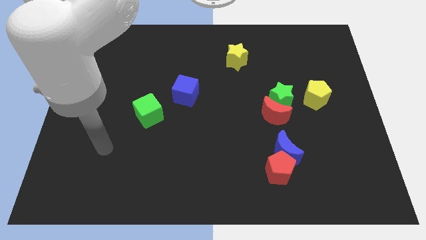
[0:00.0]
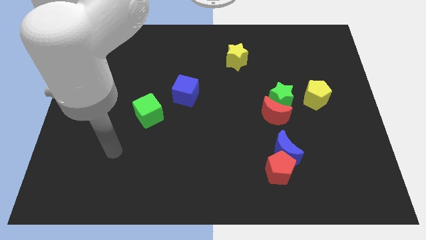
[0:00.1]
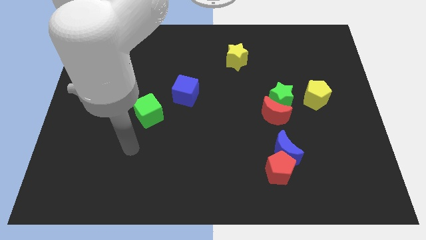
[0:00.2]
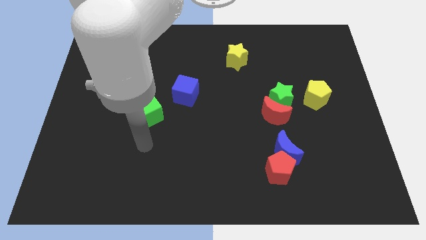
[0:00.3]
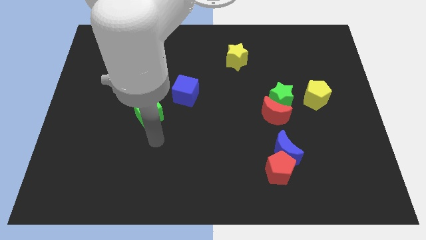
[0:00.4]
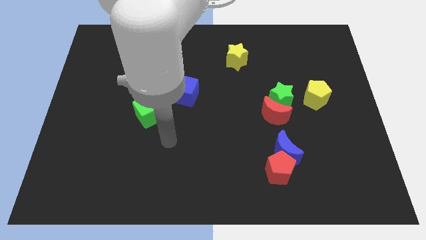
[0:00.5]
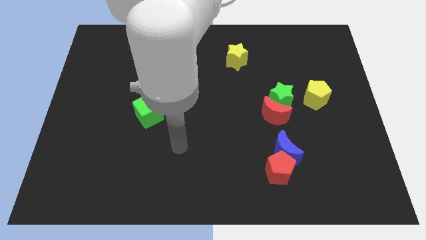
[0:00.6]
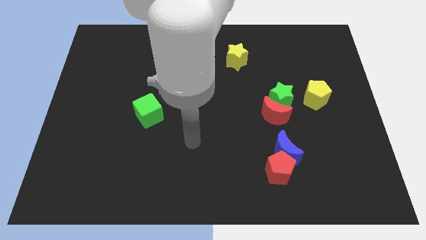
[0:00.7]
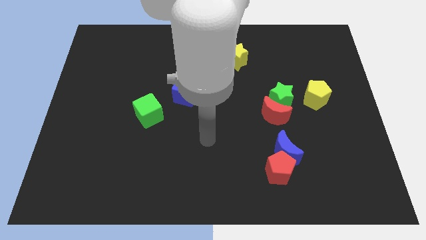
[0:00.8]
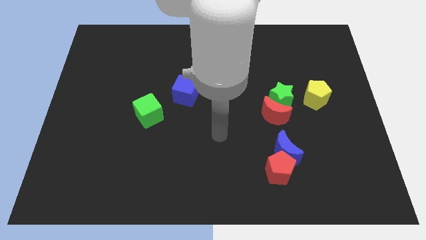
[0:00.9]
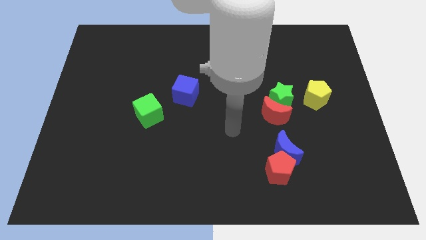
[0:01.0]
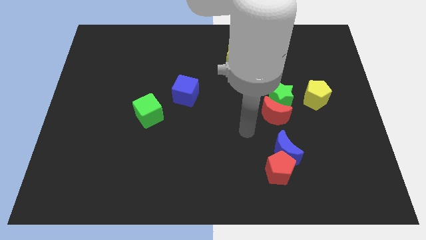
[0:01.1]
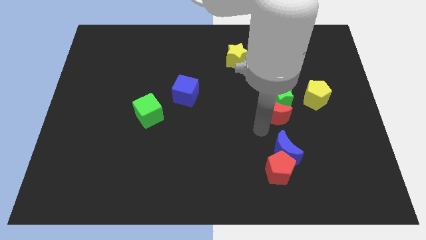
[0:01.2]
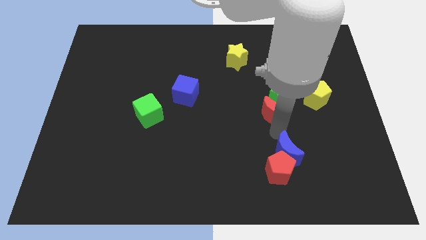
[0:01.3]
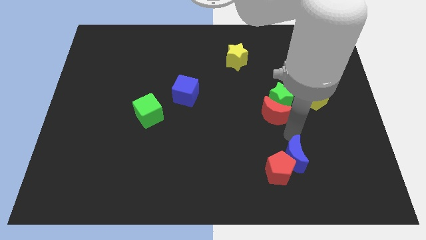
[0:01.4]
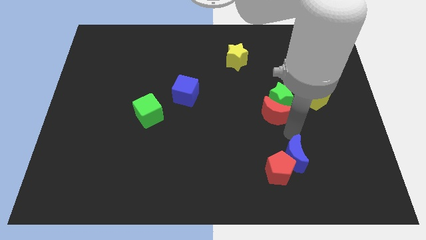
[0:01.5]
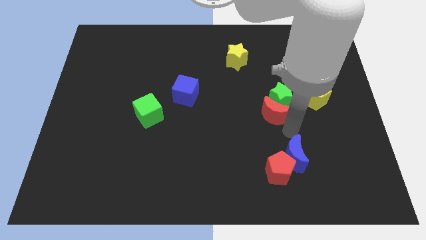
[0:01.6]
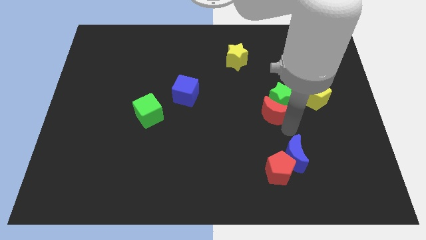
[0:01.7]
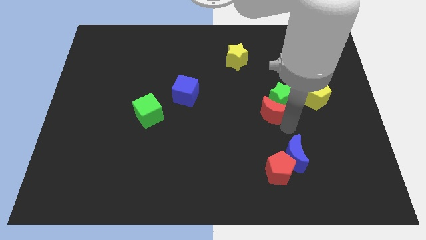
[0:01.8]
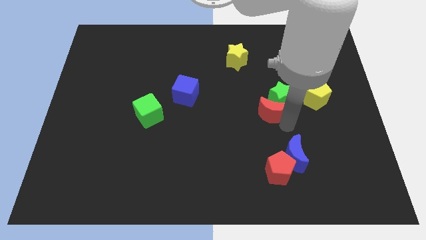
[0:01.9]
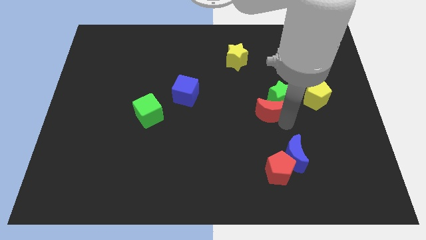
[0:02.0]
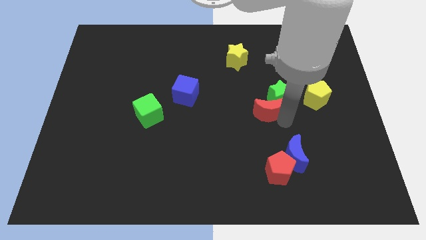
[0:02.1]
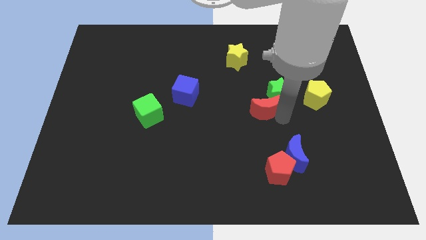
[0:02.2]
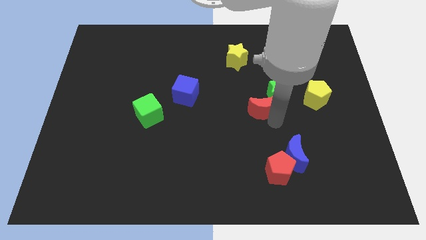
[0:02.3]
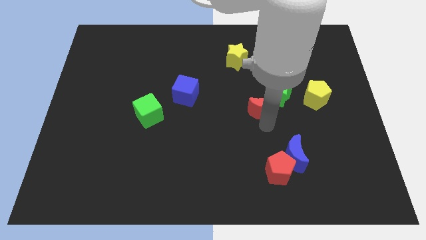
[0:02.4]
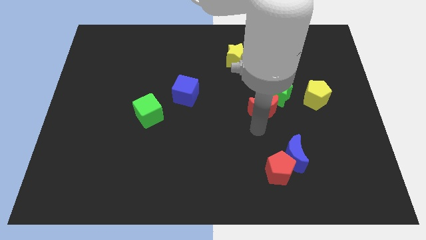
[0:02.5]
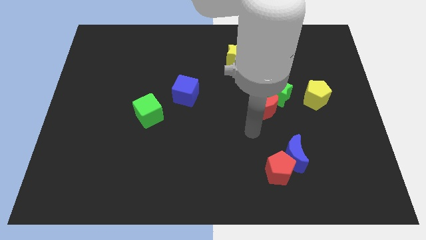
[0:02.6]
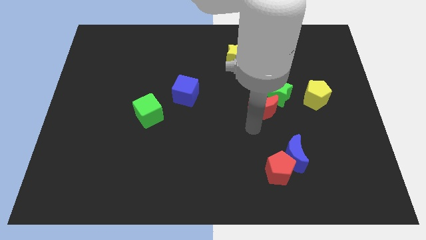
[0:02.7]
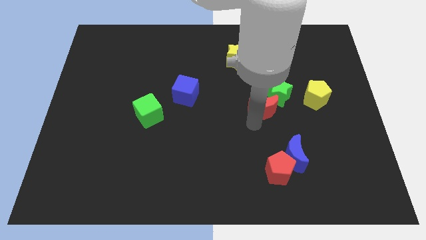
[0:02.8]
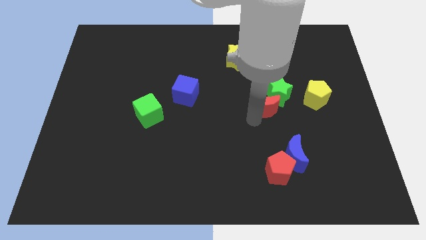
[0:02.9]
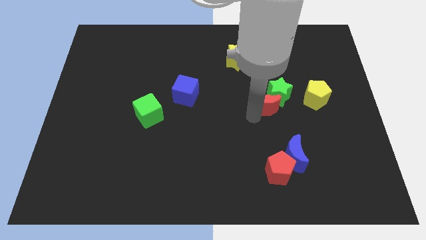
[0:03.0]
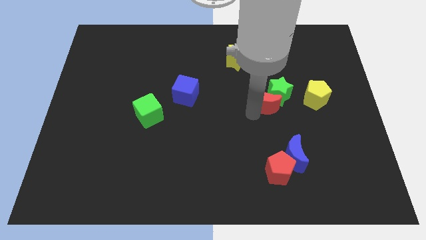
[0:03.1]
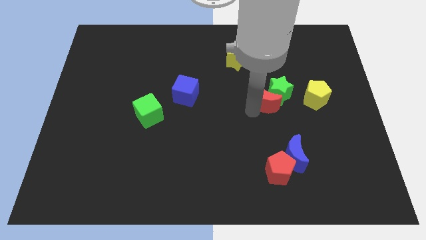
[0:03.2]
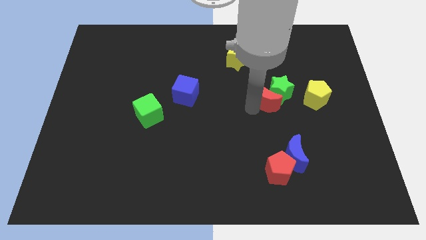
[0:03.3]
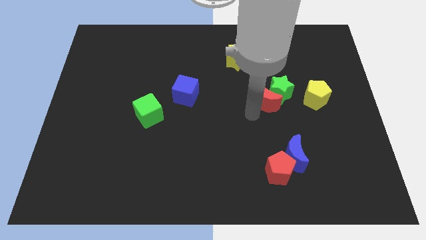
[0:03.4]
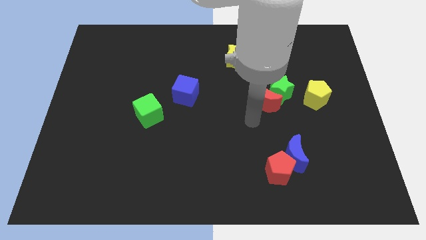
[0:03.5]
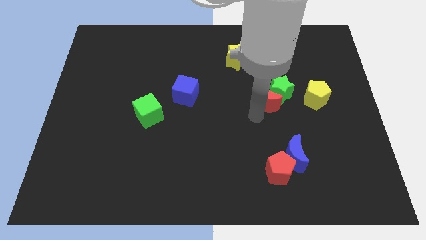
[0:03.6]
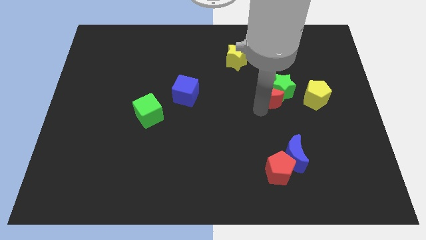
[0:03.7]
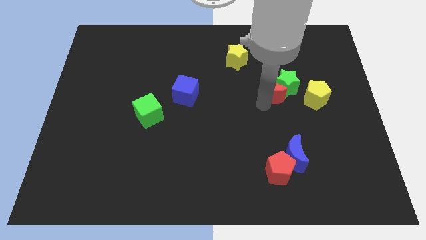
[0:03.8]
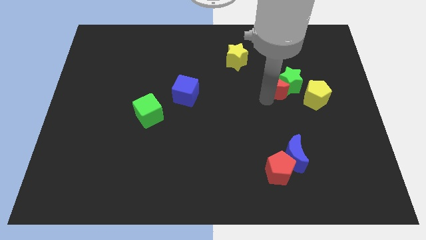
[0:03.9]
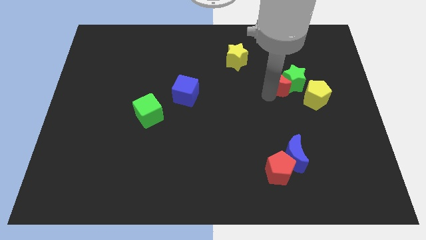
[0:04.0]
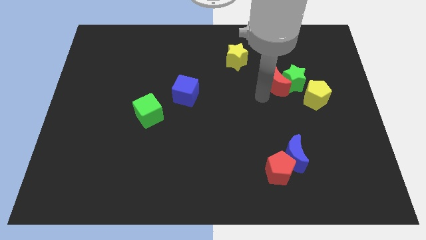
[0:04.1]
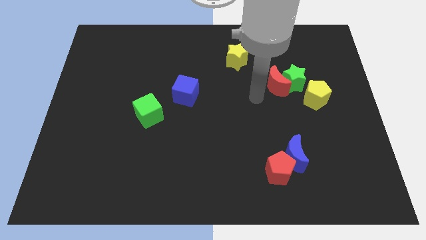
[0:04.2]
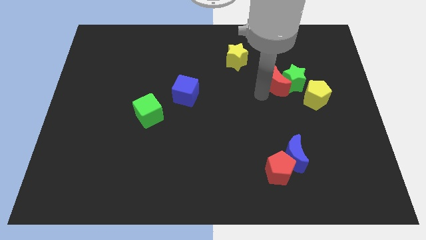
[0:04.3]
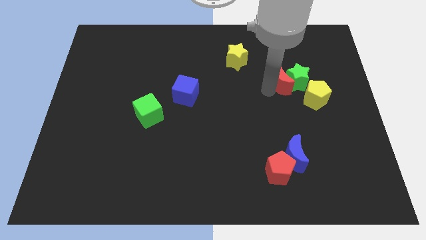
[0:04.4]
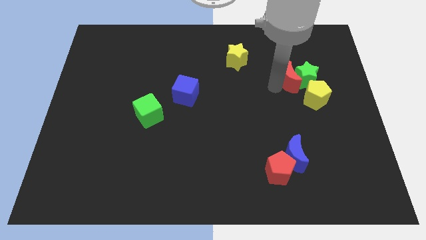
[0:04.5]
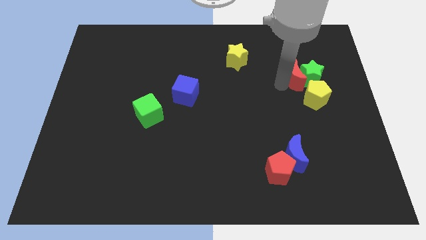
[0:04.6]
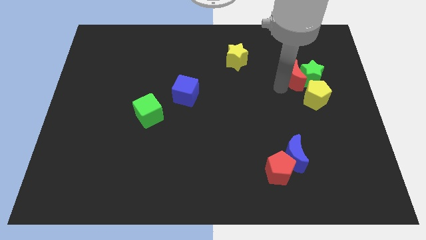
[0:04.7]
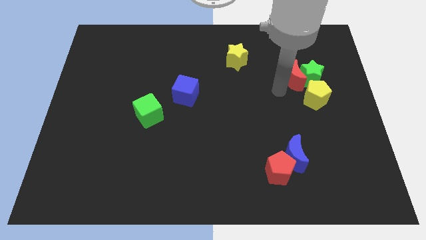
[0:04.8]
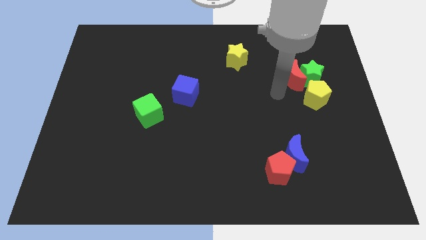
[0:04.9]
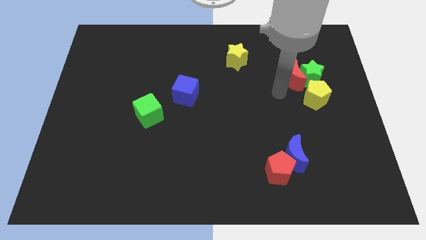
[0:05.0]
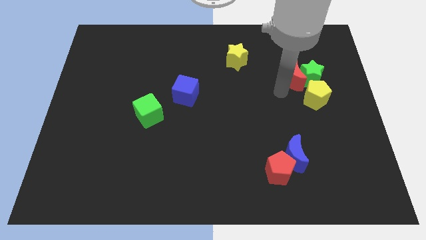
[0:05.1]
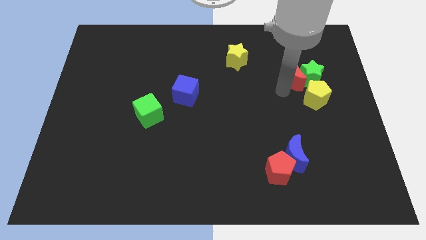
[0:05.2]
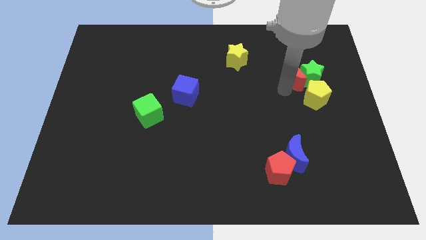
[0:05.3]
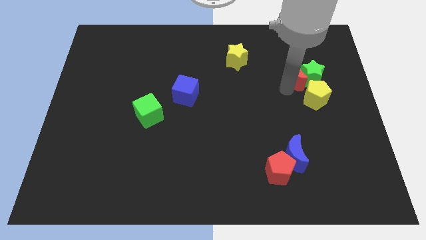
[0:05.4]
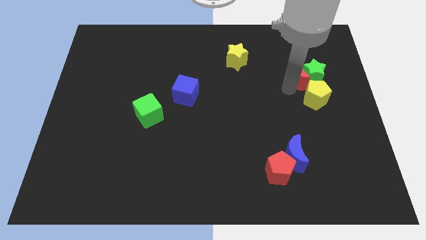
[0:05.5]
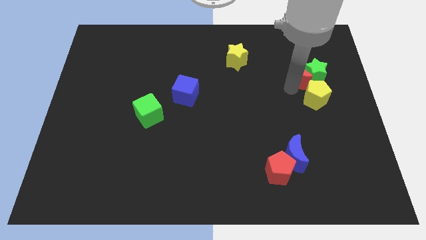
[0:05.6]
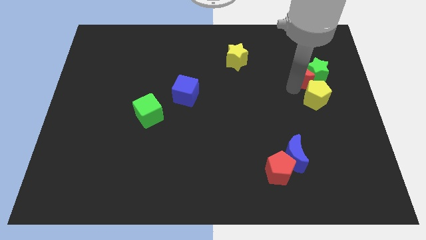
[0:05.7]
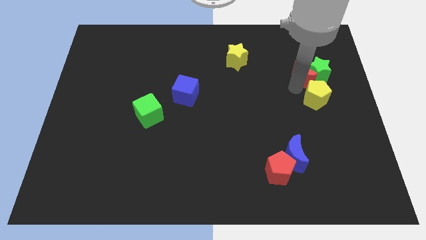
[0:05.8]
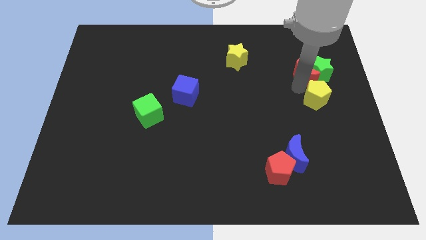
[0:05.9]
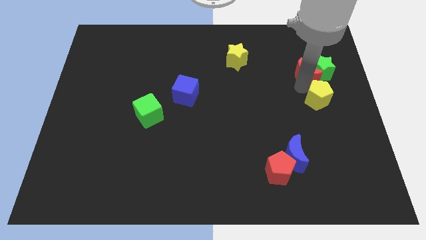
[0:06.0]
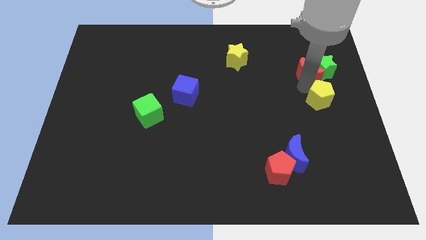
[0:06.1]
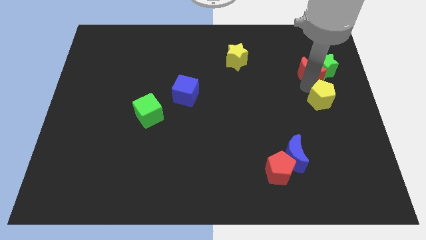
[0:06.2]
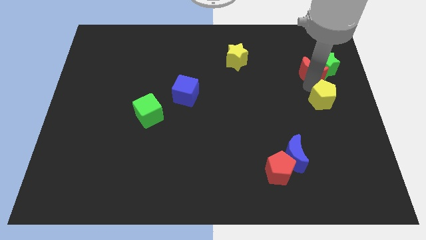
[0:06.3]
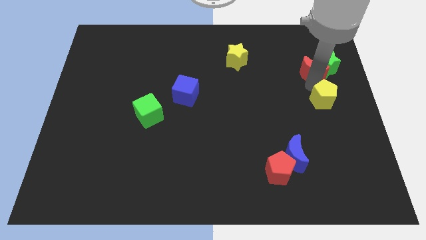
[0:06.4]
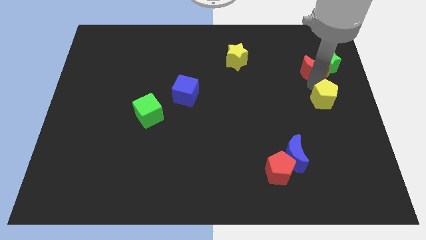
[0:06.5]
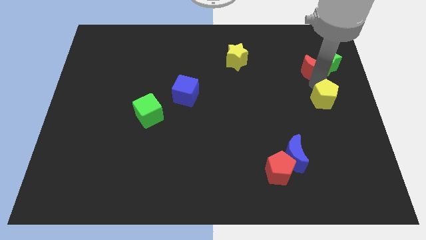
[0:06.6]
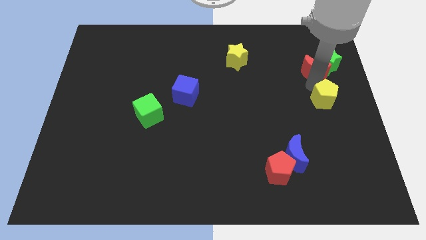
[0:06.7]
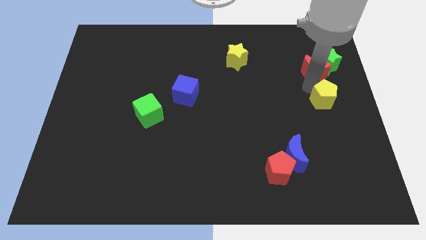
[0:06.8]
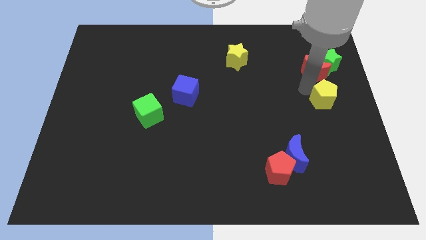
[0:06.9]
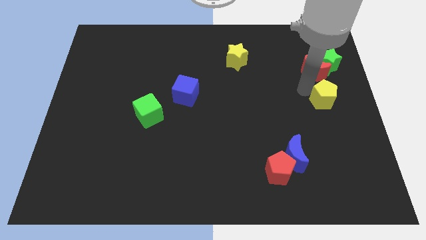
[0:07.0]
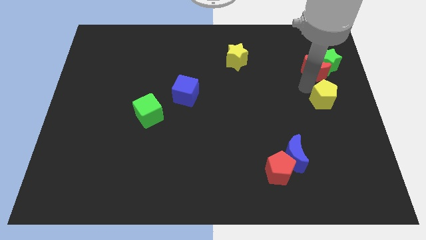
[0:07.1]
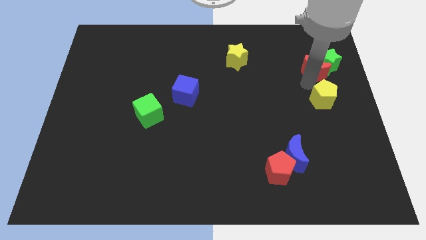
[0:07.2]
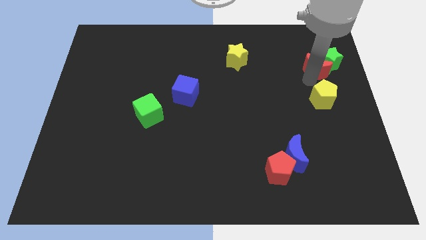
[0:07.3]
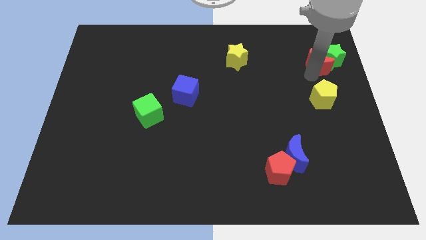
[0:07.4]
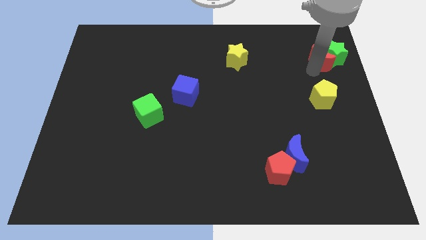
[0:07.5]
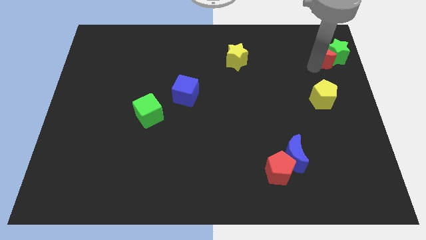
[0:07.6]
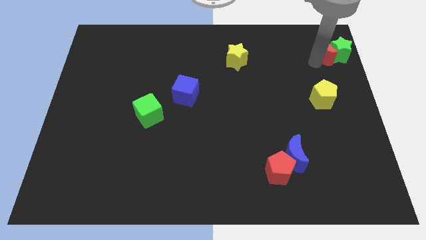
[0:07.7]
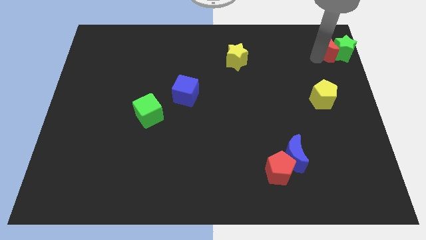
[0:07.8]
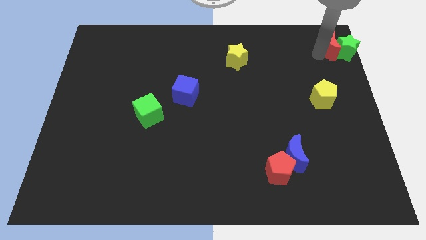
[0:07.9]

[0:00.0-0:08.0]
push the red moon to the top right corner
